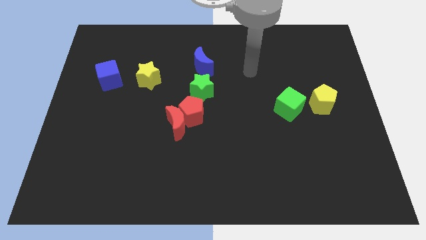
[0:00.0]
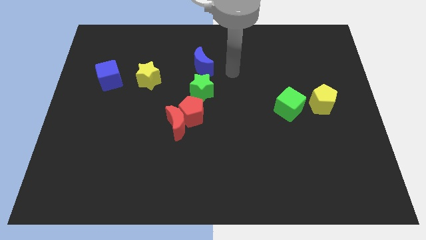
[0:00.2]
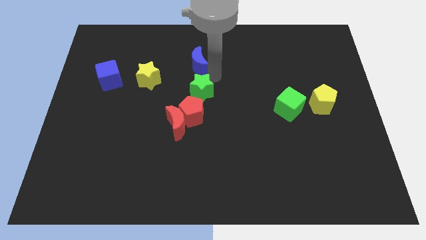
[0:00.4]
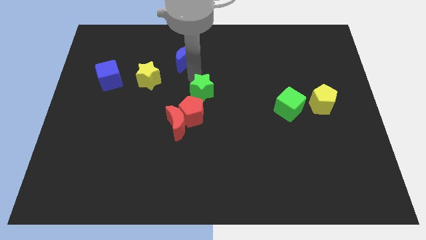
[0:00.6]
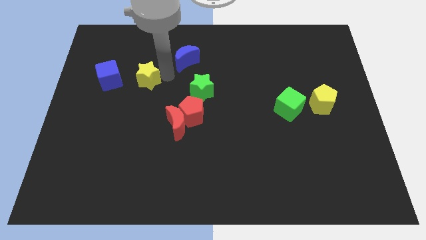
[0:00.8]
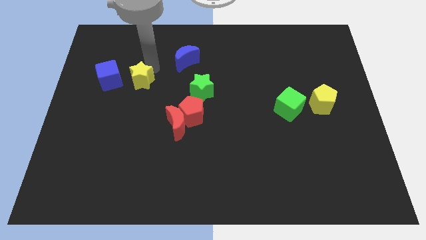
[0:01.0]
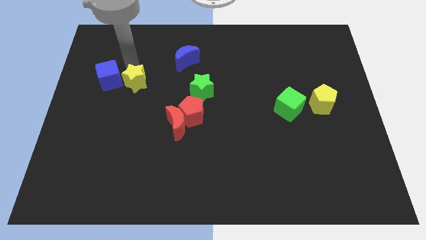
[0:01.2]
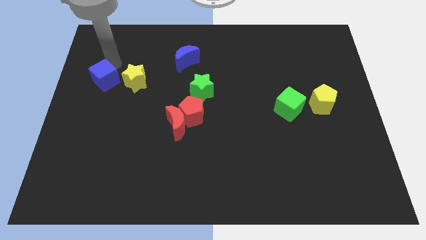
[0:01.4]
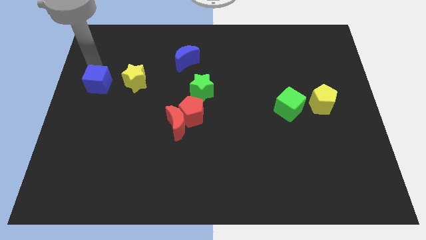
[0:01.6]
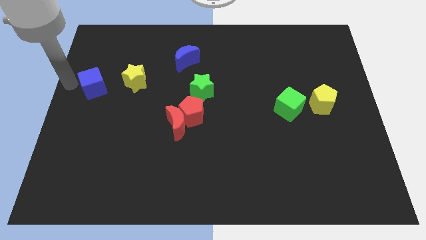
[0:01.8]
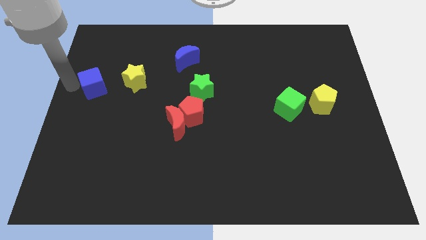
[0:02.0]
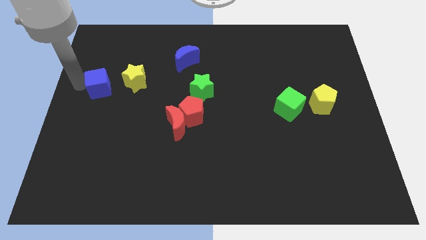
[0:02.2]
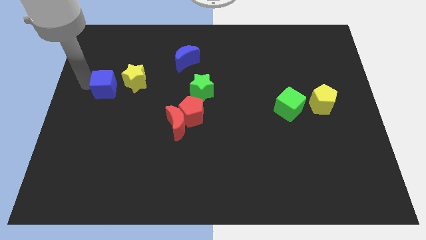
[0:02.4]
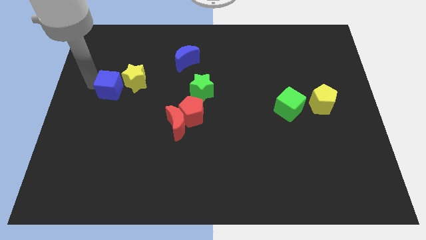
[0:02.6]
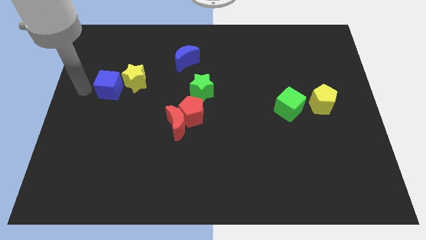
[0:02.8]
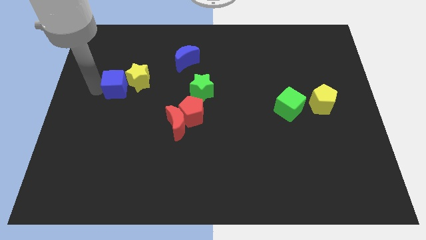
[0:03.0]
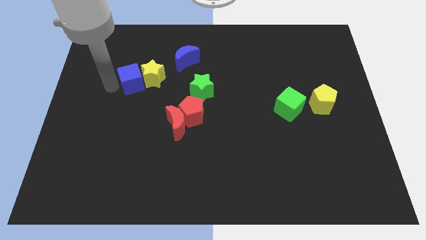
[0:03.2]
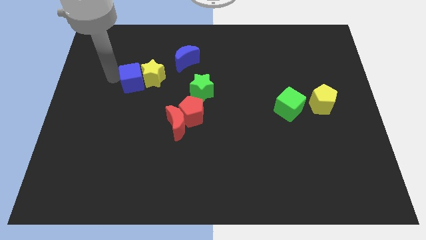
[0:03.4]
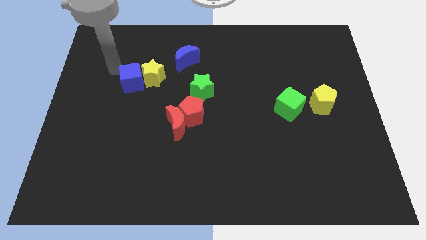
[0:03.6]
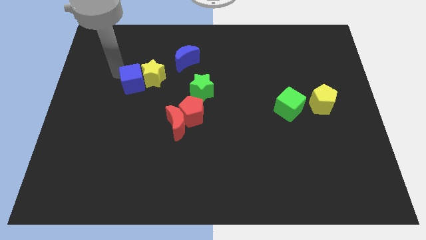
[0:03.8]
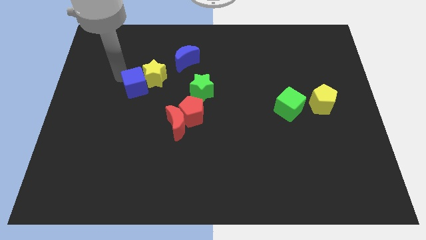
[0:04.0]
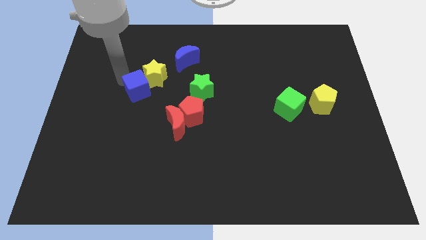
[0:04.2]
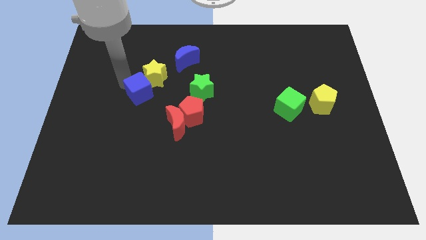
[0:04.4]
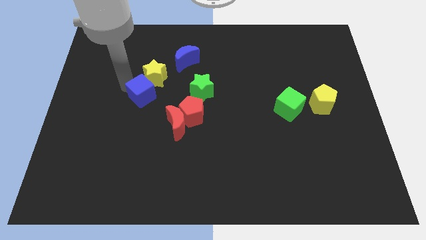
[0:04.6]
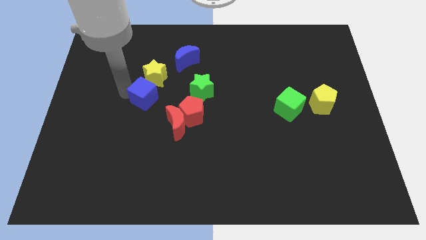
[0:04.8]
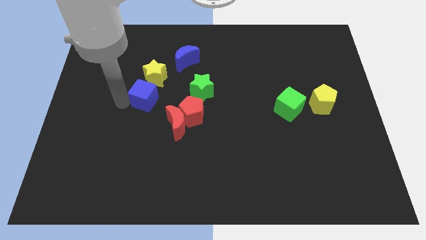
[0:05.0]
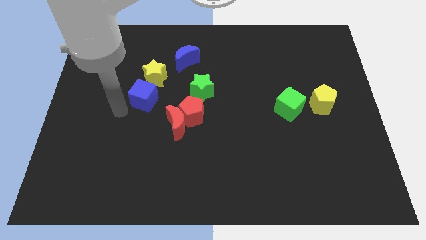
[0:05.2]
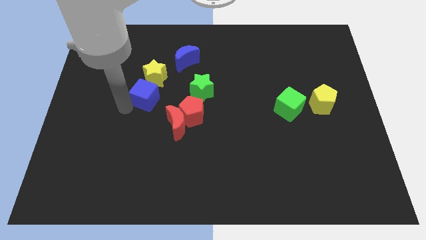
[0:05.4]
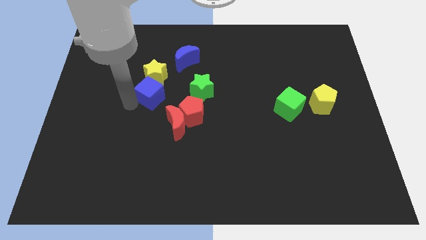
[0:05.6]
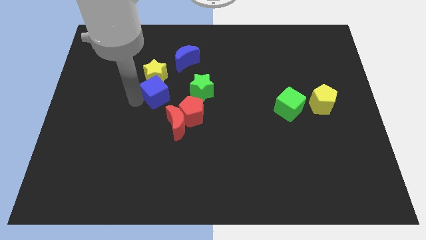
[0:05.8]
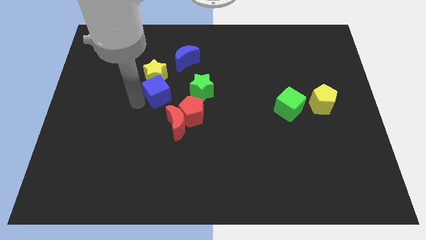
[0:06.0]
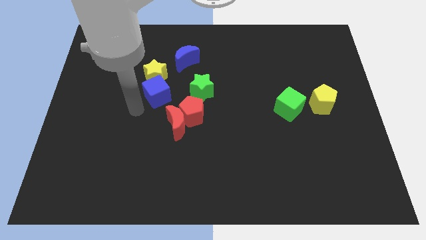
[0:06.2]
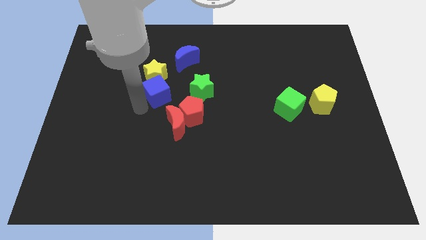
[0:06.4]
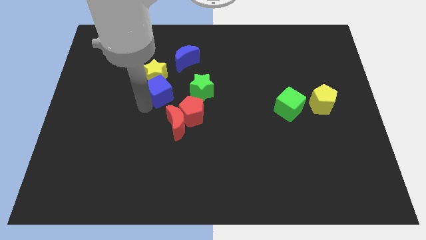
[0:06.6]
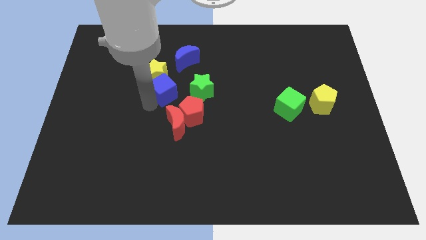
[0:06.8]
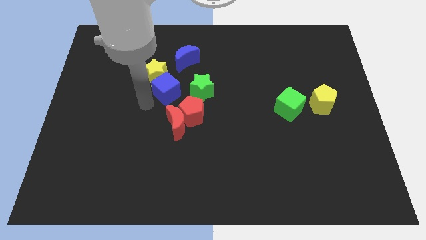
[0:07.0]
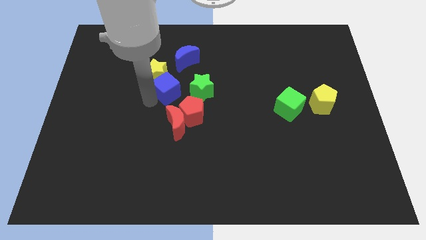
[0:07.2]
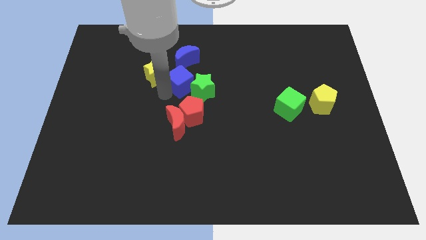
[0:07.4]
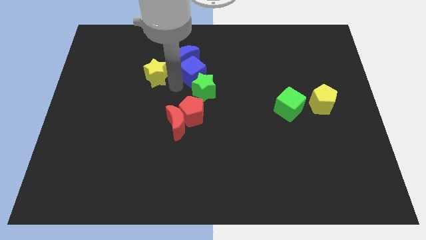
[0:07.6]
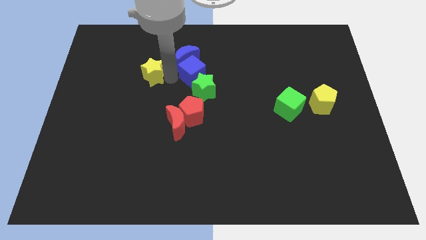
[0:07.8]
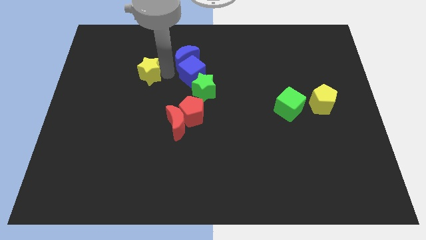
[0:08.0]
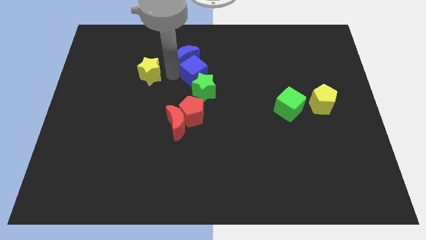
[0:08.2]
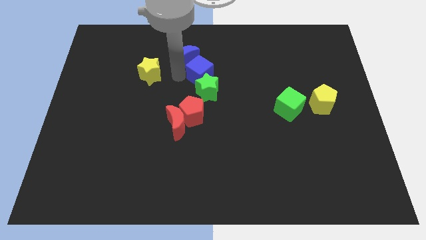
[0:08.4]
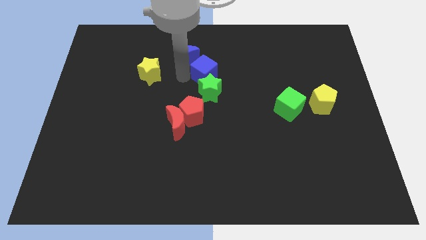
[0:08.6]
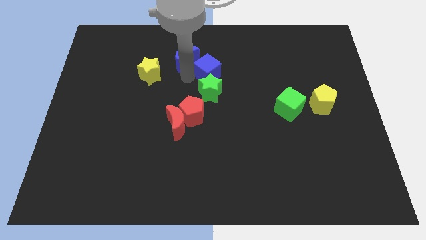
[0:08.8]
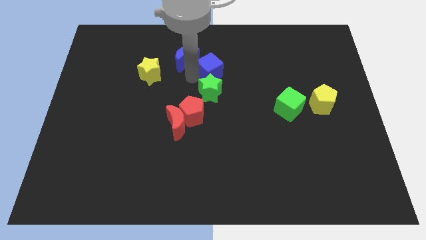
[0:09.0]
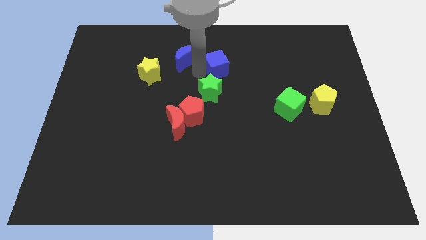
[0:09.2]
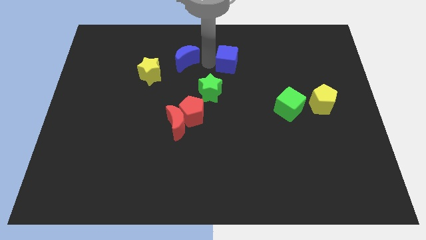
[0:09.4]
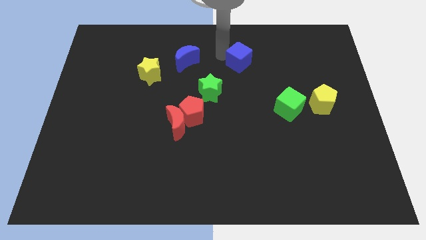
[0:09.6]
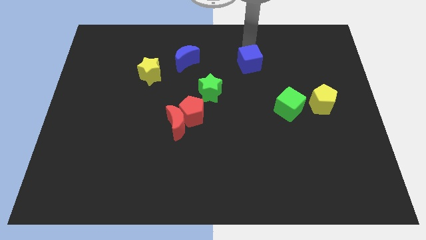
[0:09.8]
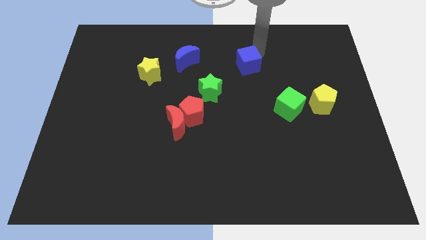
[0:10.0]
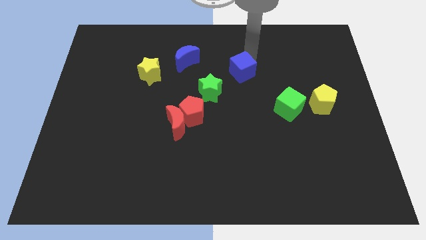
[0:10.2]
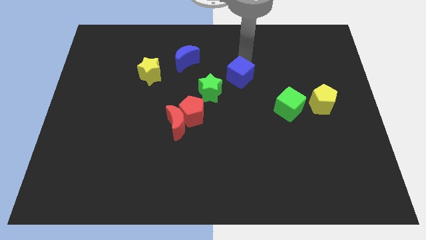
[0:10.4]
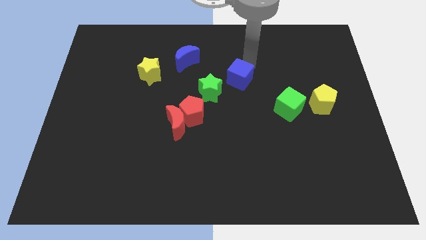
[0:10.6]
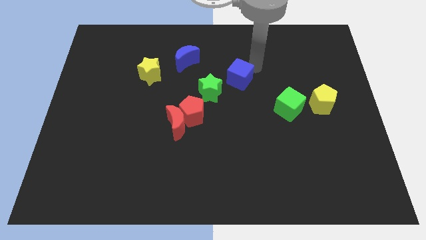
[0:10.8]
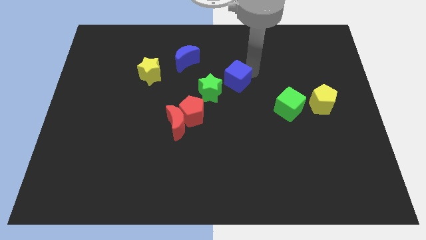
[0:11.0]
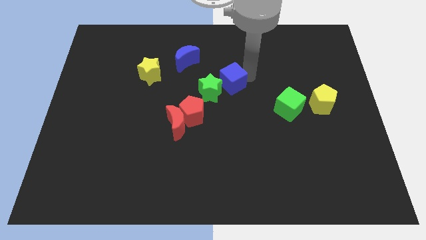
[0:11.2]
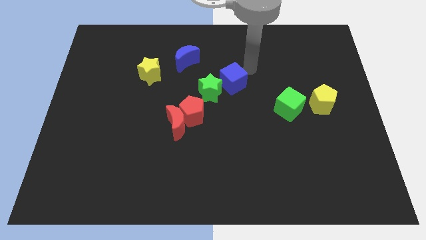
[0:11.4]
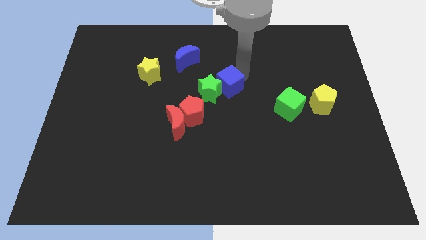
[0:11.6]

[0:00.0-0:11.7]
move the blue cube diagonally up and to the right of the red pentagon
